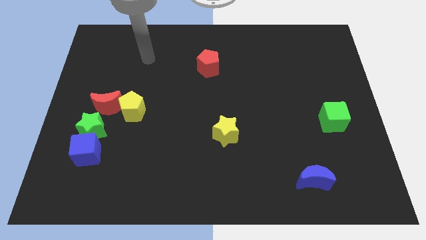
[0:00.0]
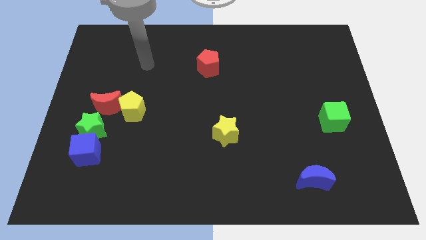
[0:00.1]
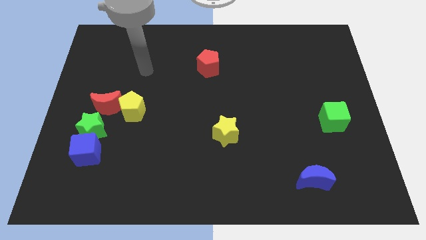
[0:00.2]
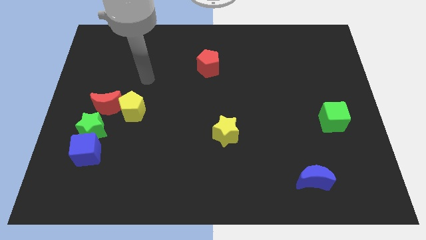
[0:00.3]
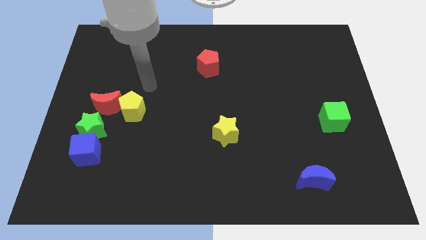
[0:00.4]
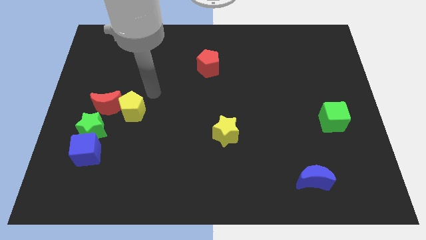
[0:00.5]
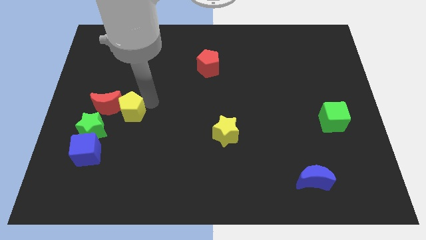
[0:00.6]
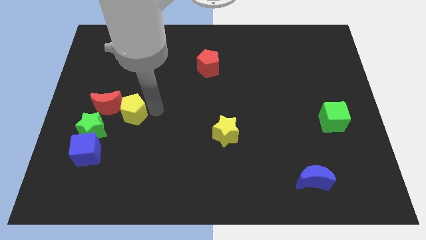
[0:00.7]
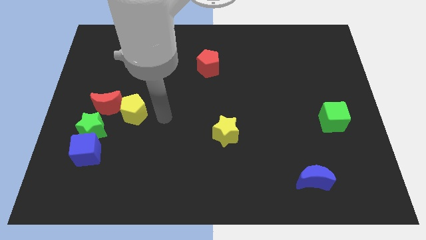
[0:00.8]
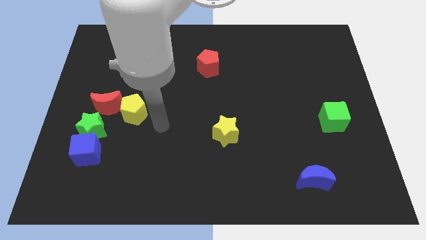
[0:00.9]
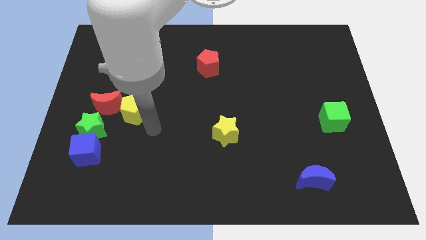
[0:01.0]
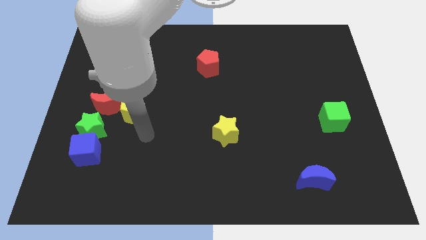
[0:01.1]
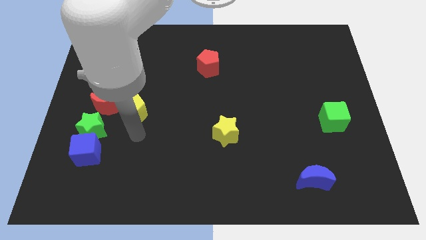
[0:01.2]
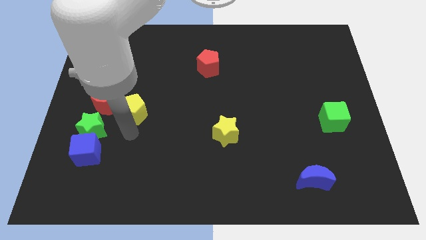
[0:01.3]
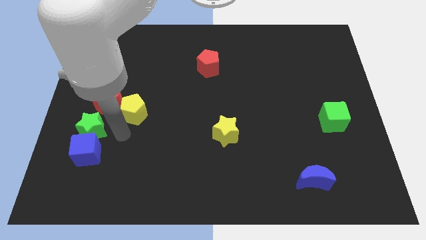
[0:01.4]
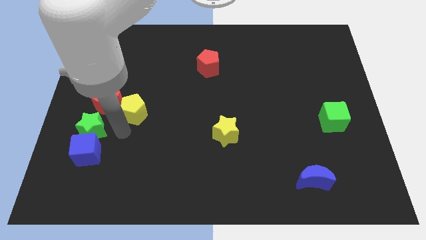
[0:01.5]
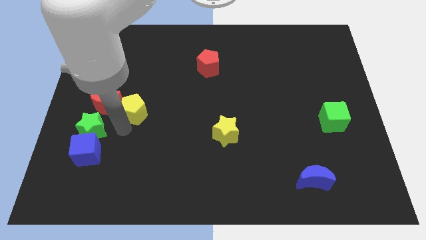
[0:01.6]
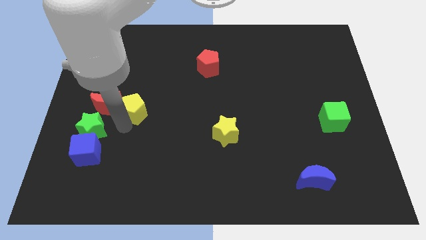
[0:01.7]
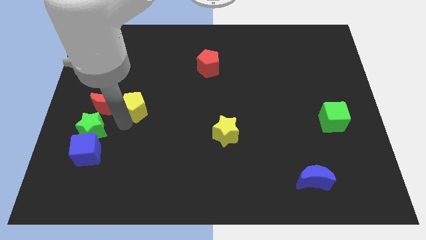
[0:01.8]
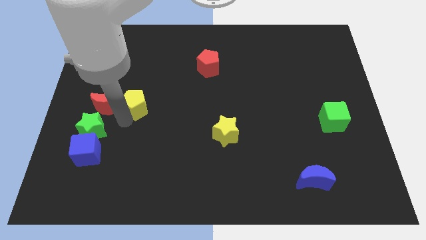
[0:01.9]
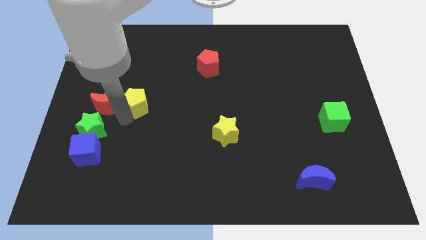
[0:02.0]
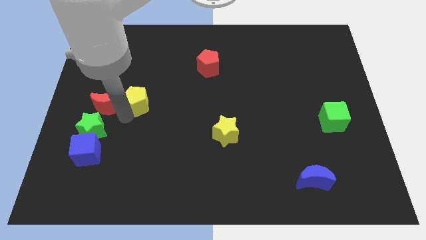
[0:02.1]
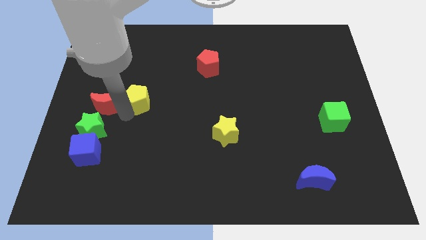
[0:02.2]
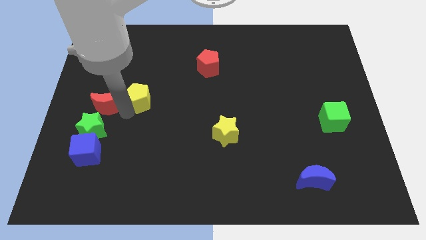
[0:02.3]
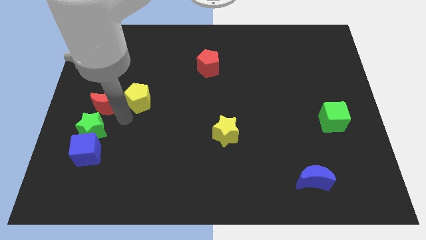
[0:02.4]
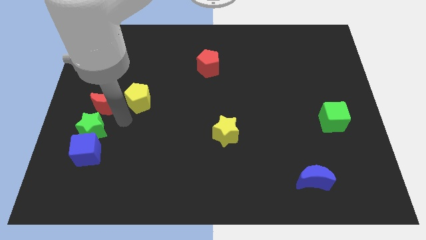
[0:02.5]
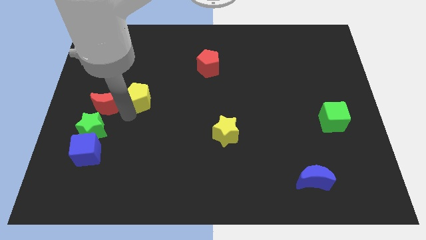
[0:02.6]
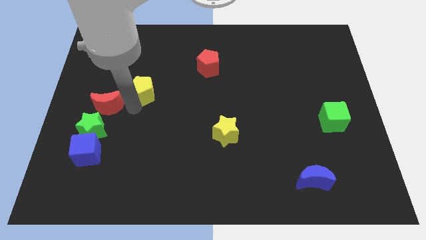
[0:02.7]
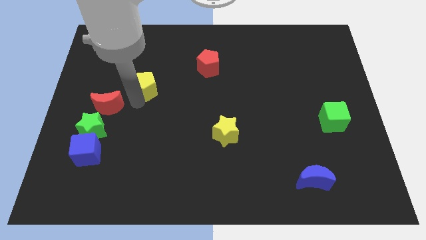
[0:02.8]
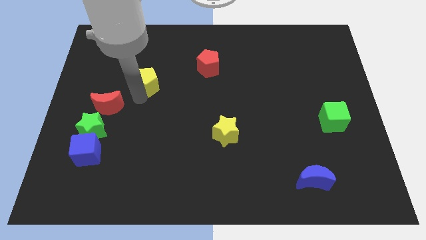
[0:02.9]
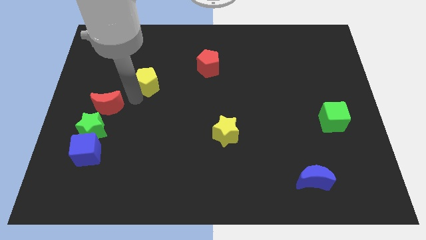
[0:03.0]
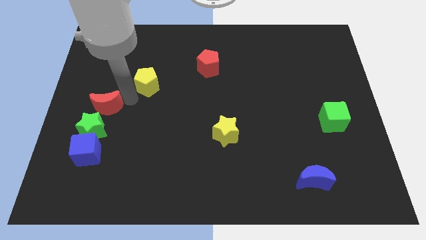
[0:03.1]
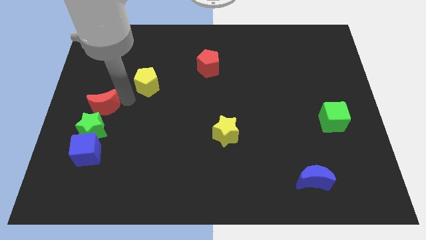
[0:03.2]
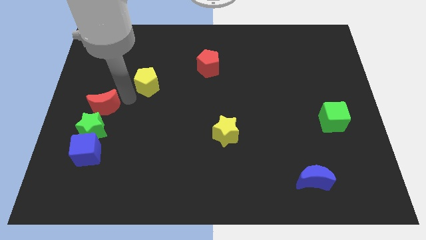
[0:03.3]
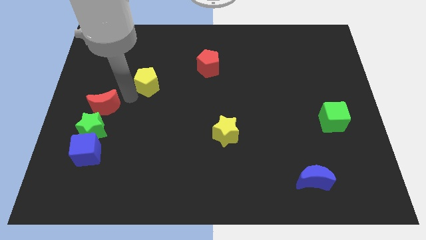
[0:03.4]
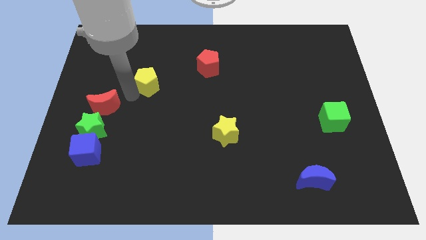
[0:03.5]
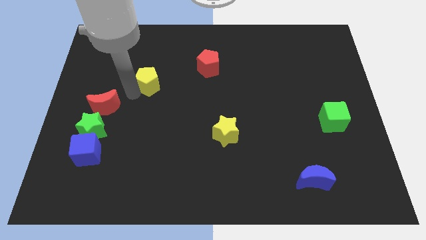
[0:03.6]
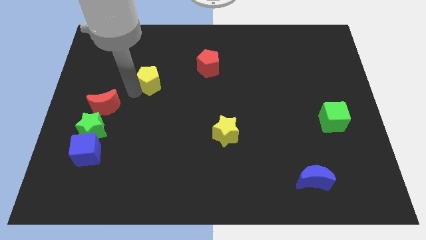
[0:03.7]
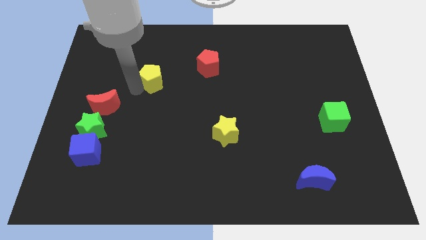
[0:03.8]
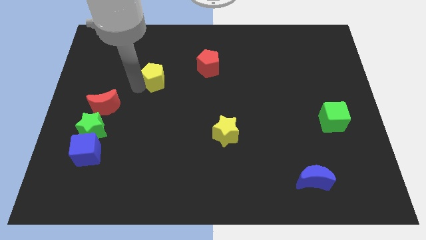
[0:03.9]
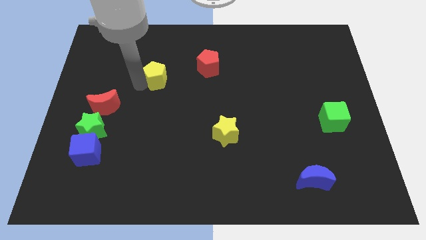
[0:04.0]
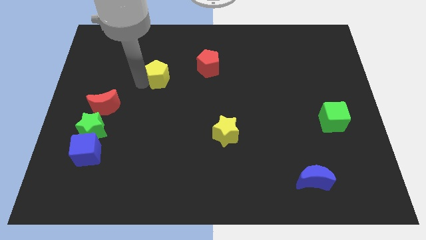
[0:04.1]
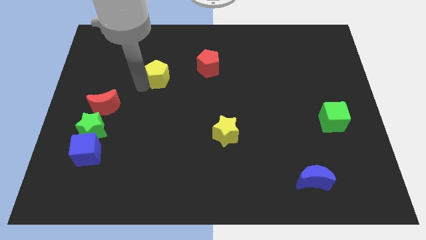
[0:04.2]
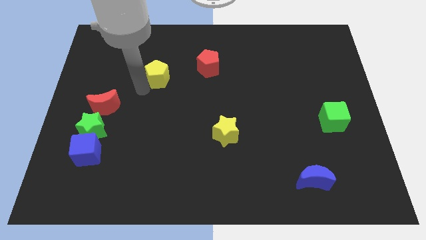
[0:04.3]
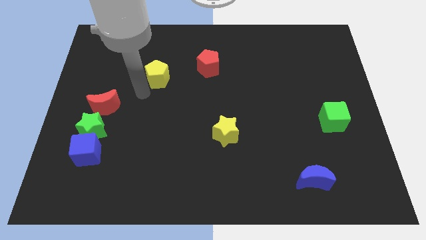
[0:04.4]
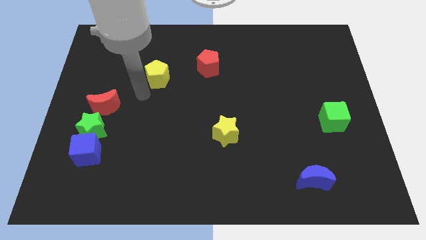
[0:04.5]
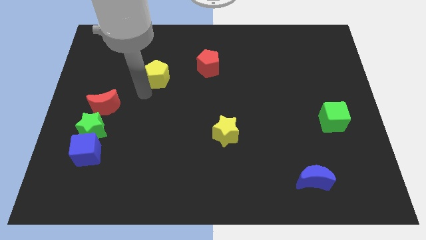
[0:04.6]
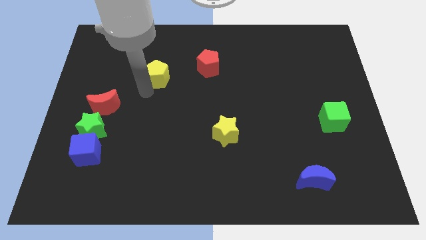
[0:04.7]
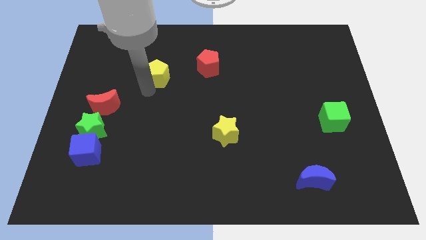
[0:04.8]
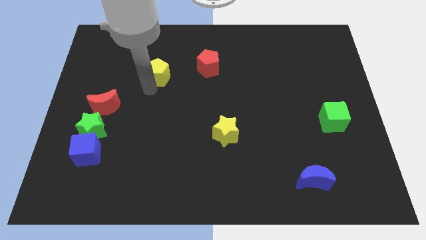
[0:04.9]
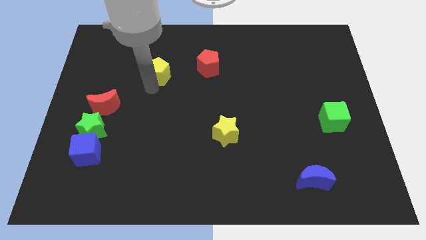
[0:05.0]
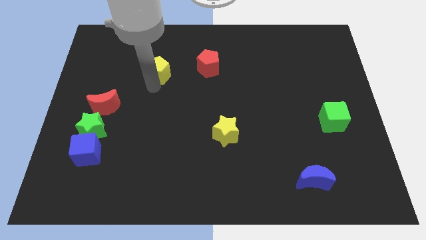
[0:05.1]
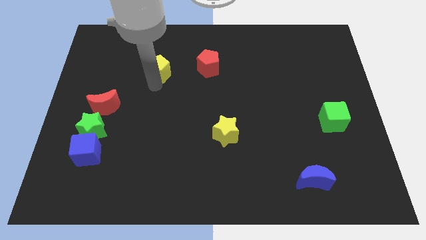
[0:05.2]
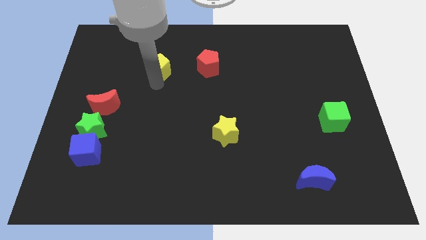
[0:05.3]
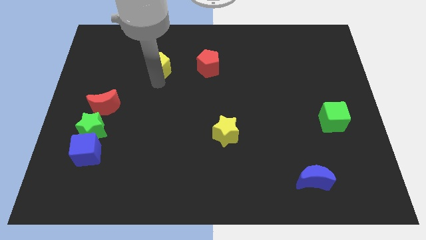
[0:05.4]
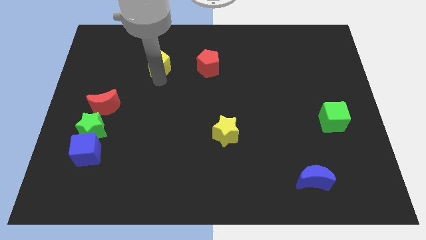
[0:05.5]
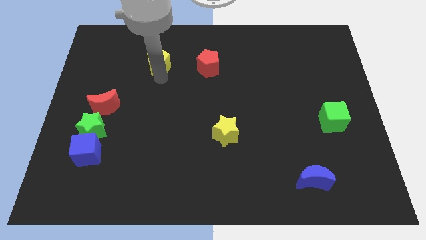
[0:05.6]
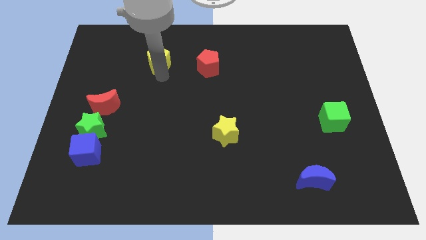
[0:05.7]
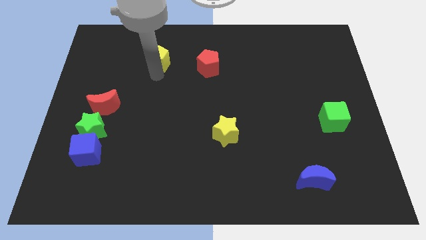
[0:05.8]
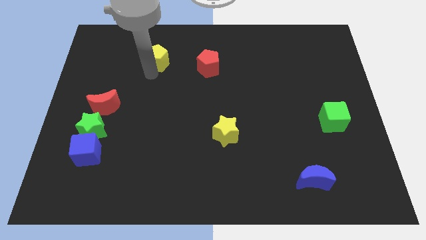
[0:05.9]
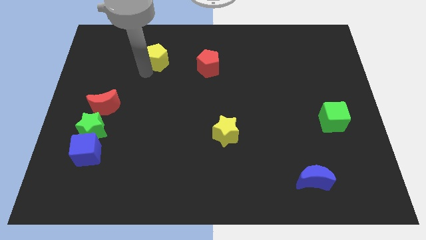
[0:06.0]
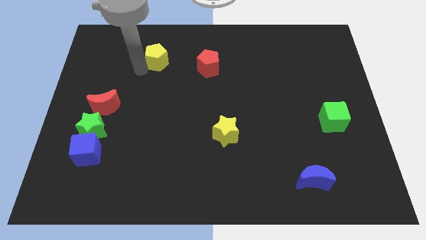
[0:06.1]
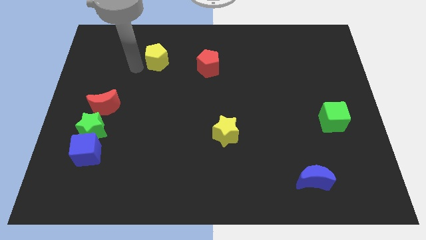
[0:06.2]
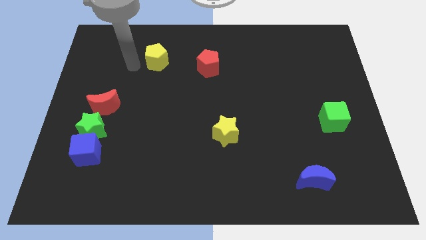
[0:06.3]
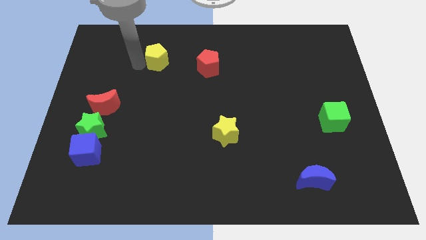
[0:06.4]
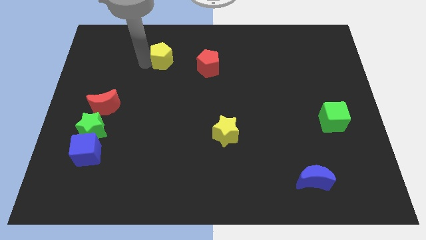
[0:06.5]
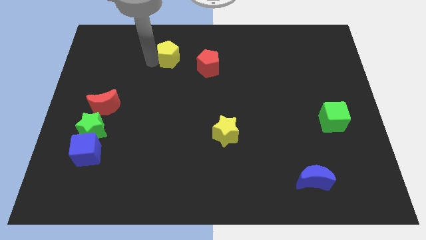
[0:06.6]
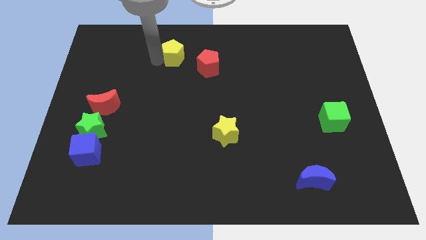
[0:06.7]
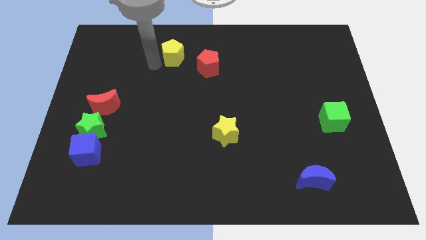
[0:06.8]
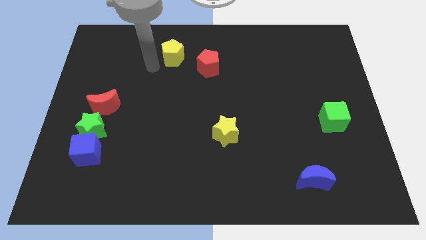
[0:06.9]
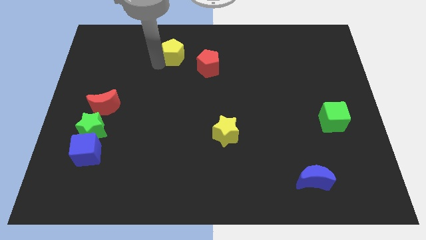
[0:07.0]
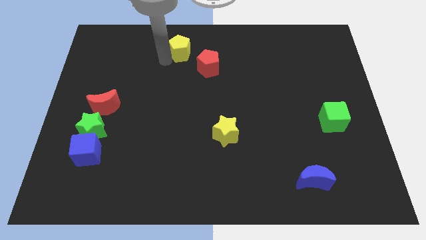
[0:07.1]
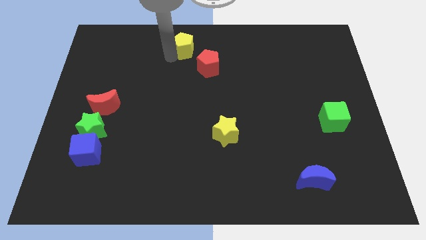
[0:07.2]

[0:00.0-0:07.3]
slide the yellow pentagon to the towards your base
